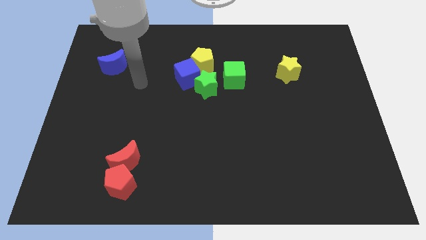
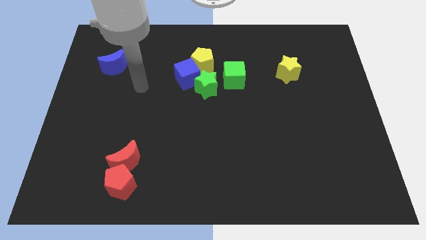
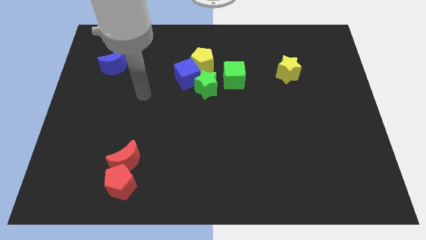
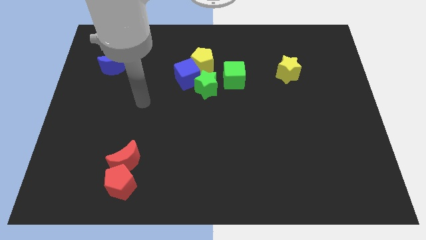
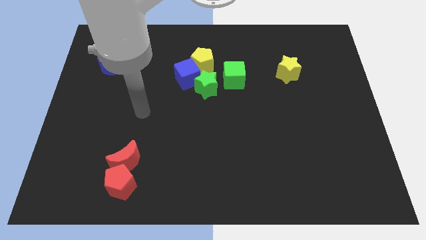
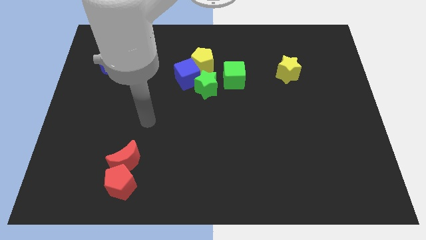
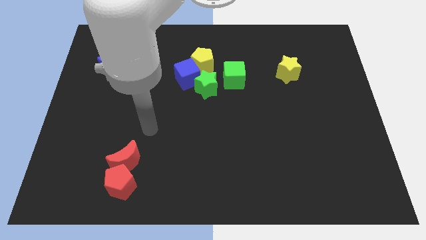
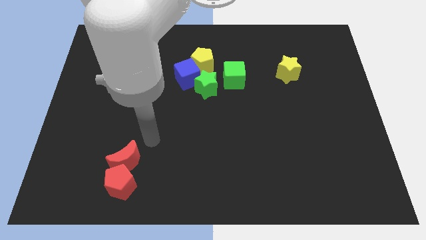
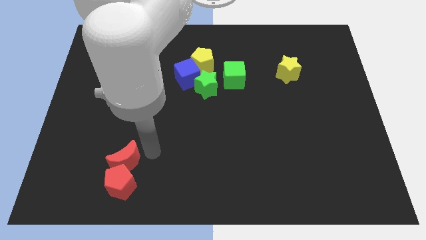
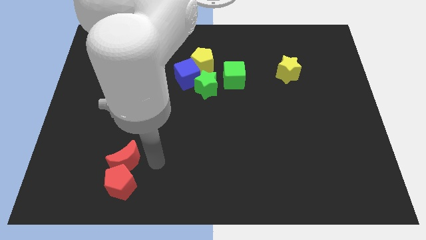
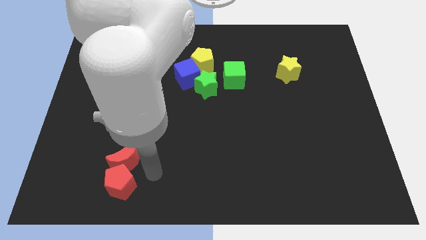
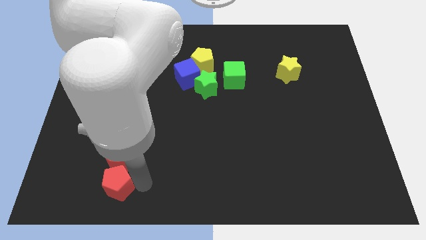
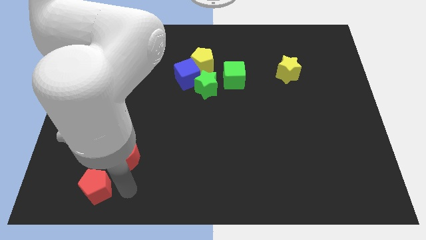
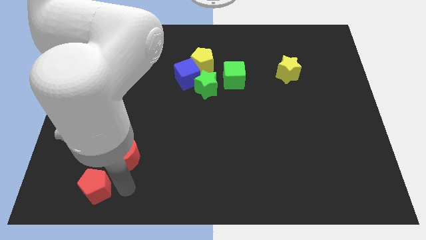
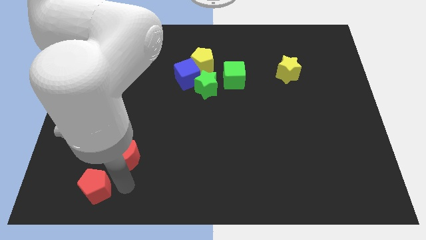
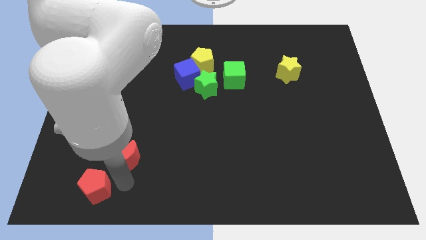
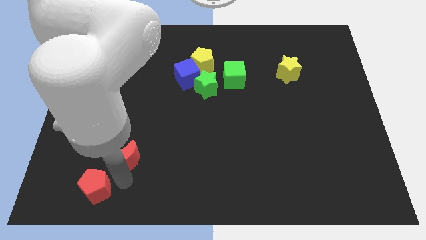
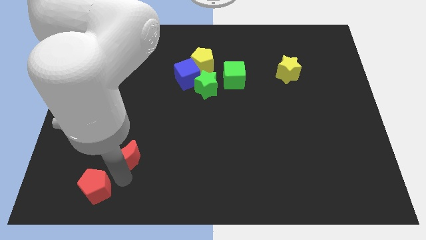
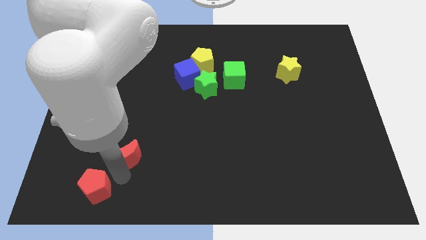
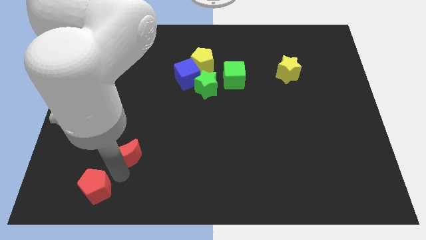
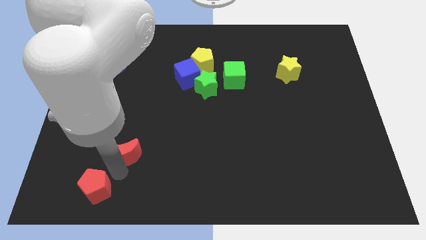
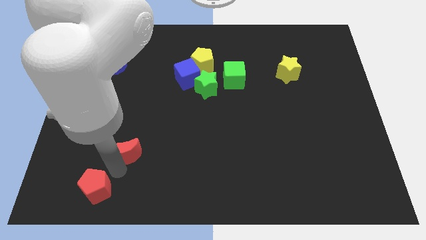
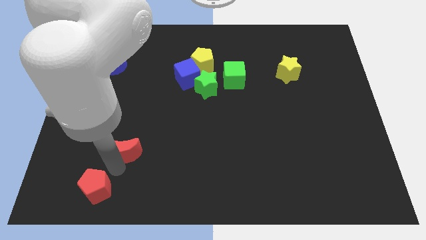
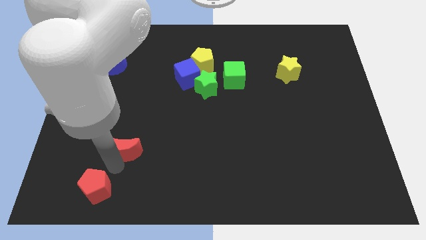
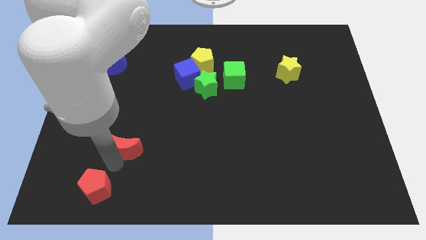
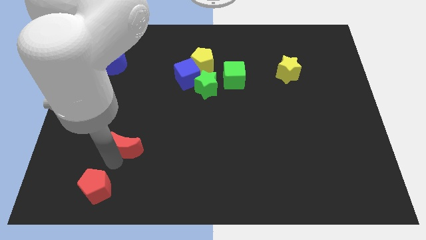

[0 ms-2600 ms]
move the red moon away from the red pentagon

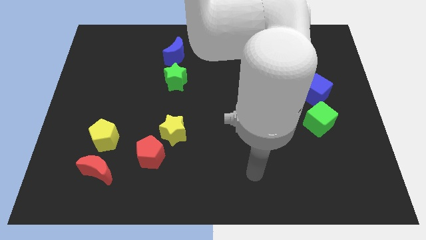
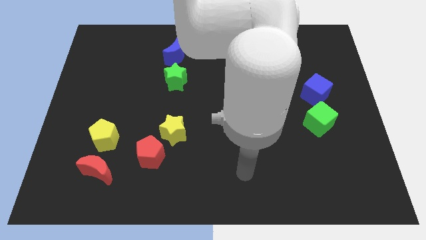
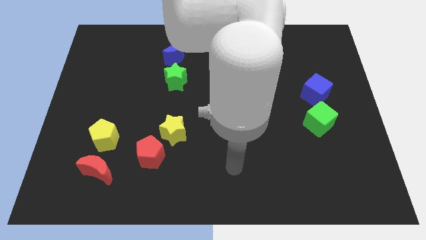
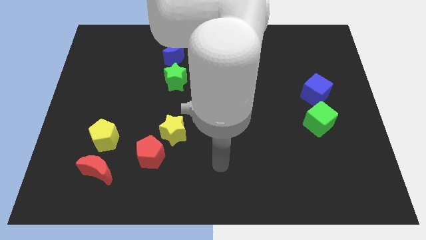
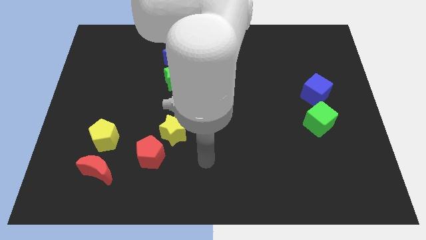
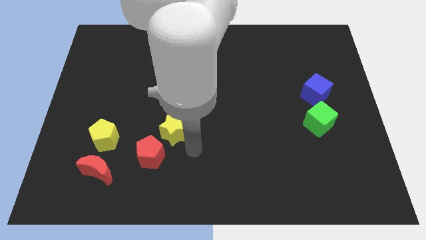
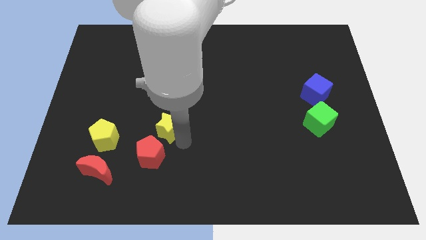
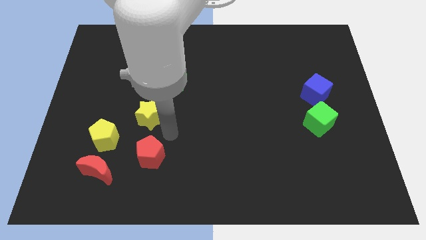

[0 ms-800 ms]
separate the red pentagon from the yellow star

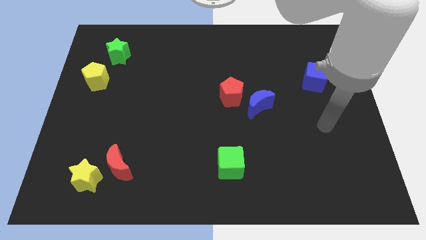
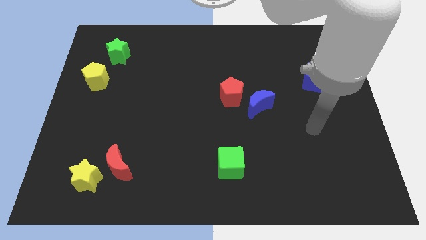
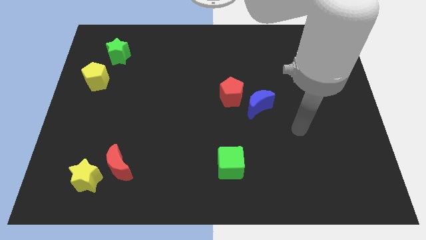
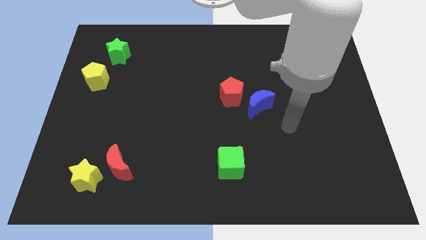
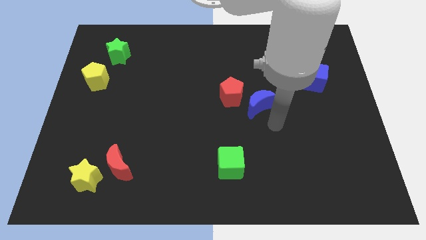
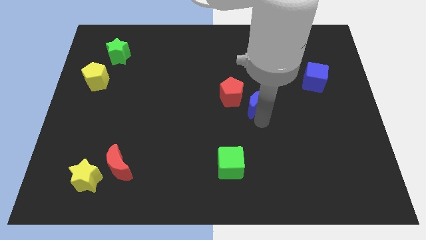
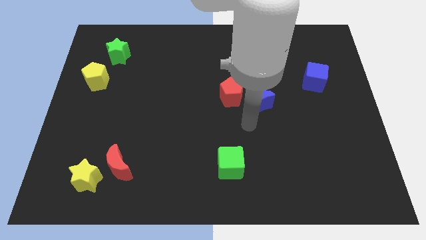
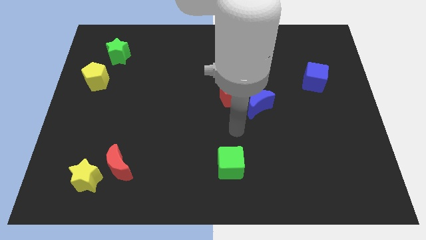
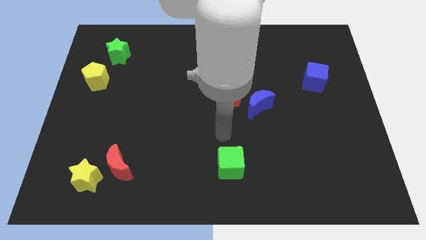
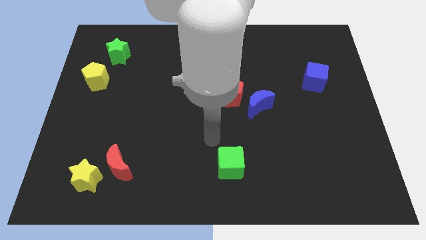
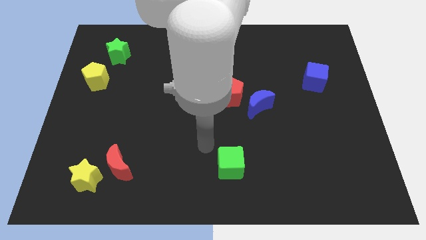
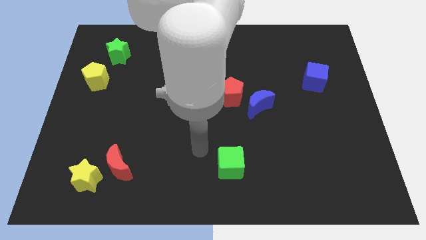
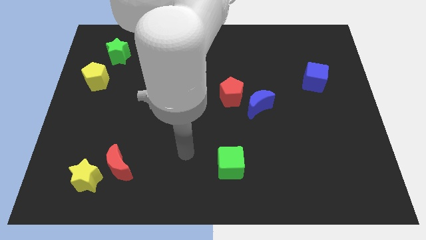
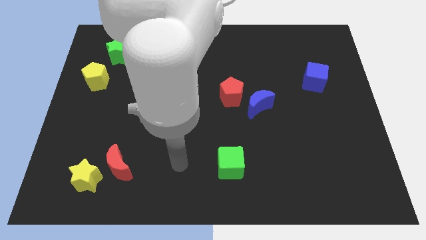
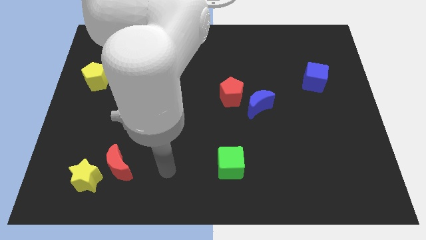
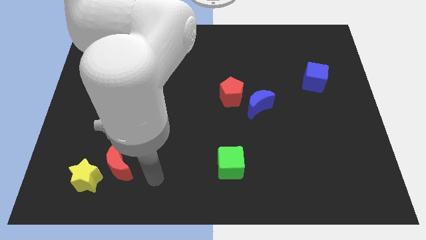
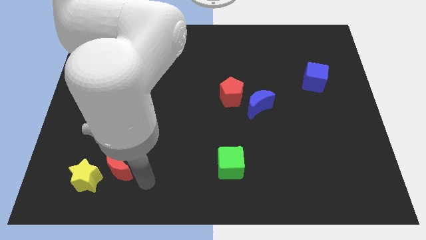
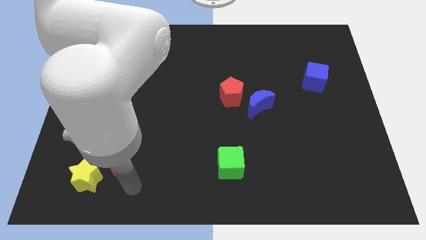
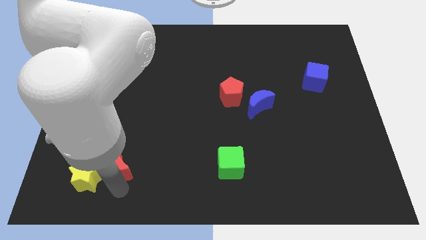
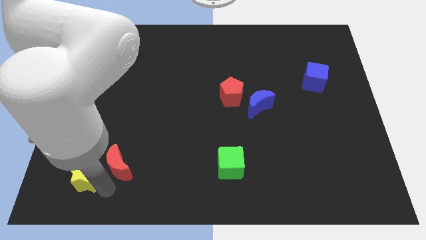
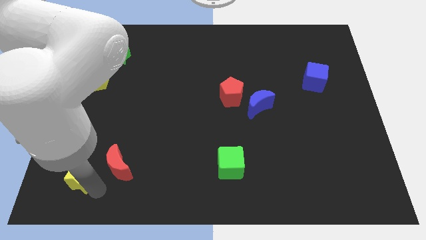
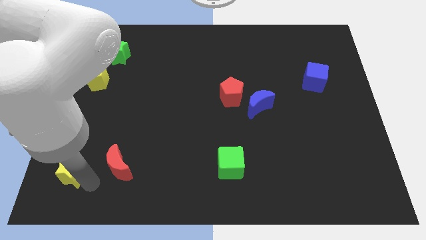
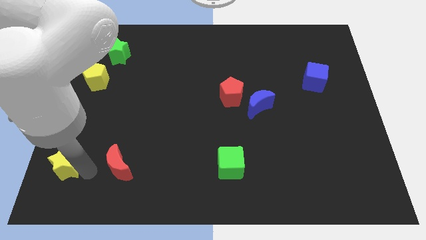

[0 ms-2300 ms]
move the red moon away from the yellow star

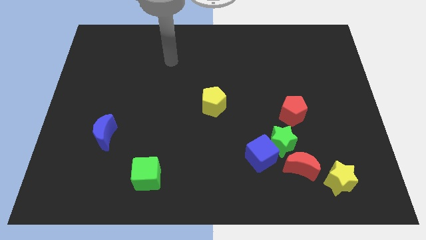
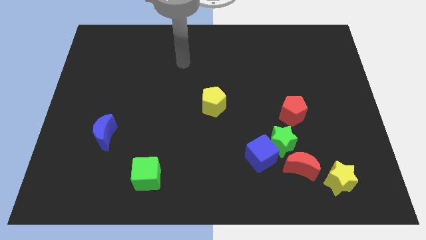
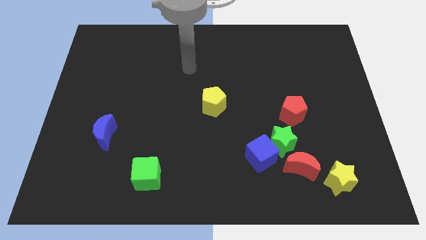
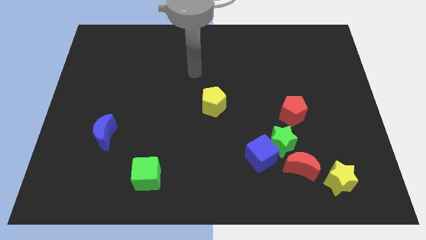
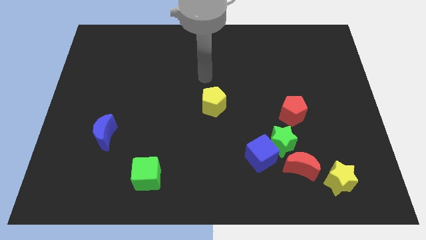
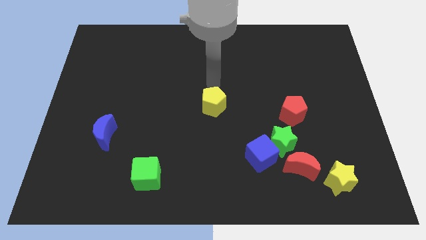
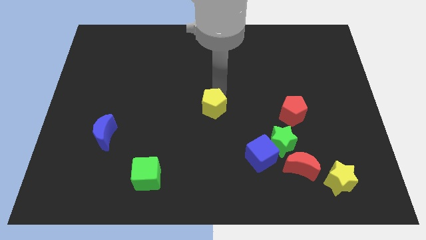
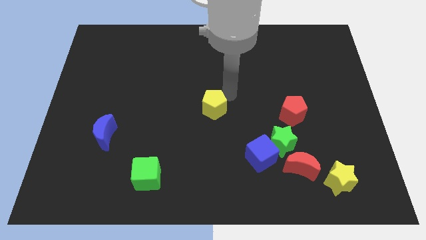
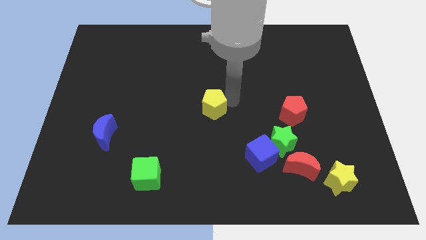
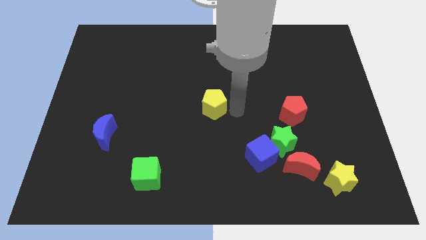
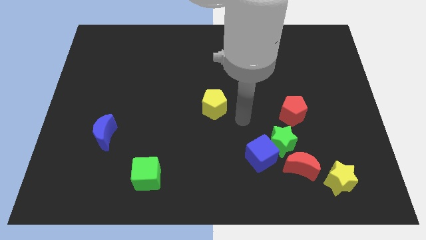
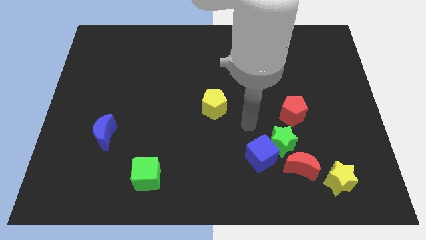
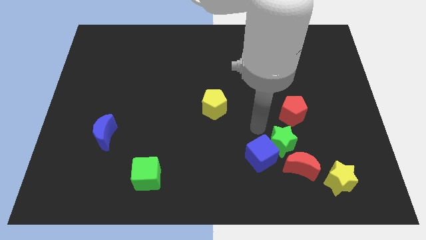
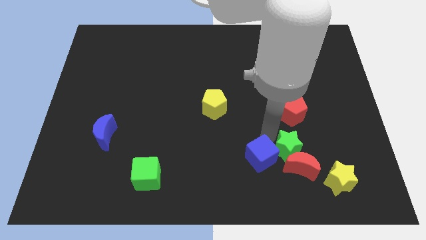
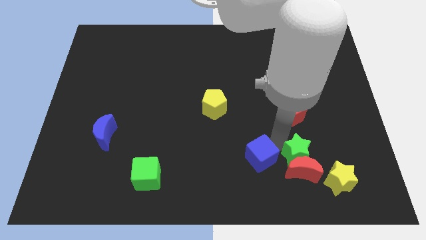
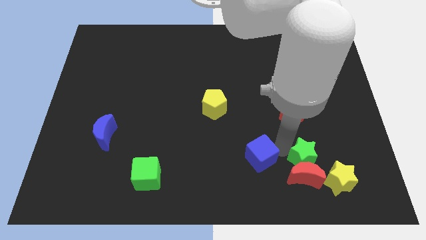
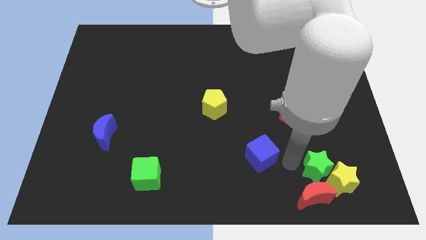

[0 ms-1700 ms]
move the blue cube away from the green star and red moon

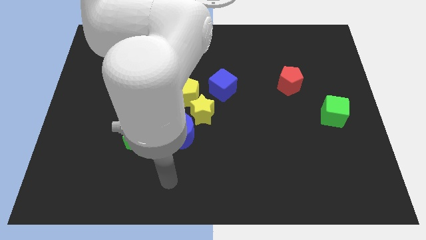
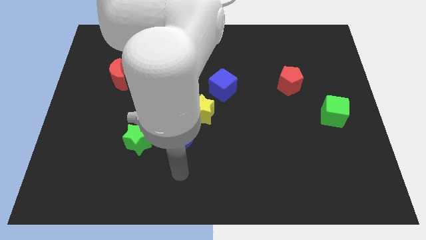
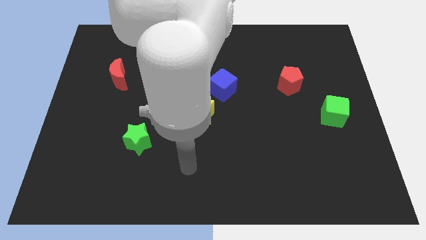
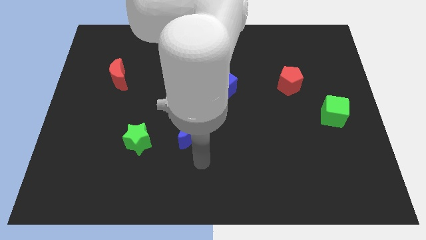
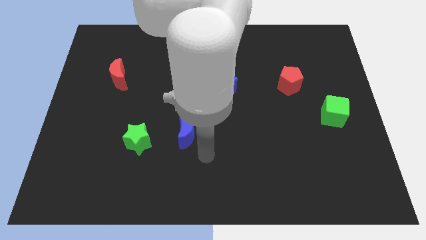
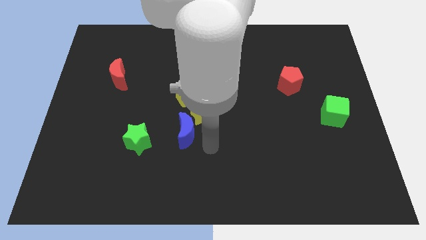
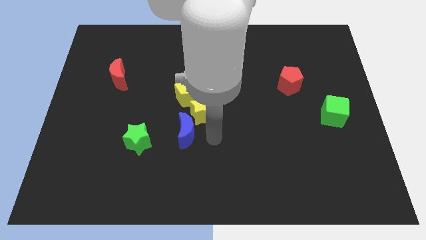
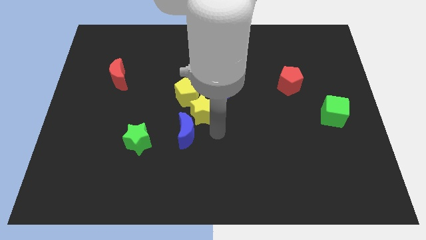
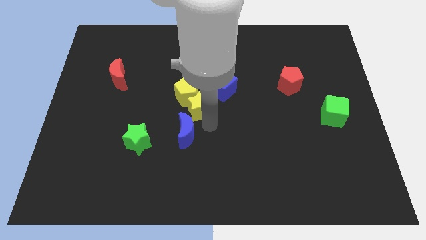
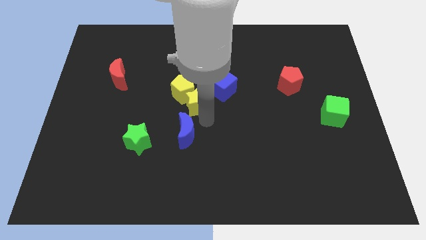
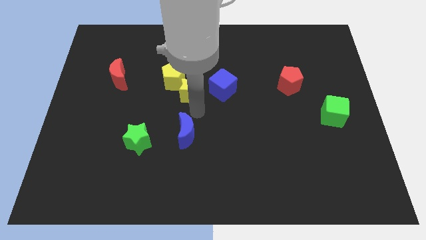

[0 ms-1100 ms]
separate the blue moon from the yellow star

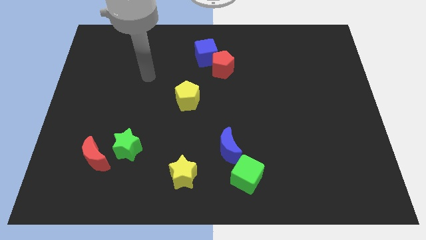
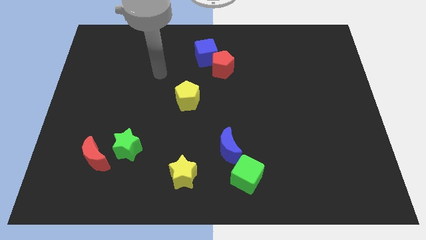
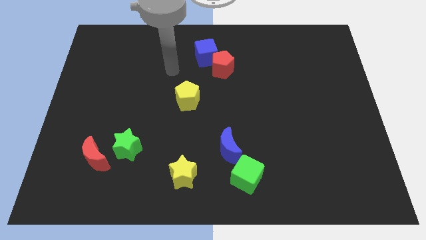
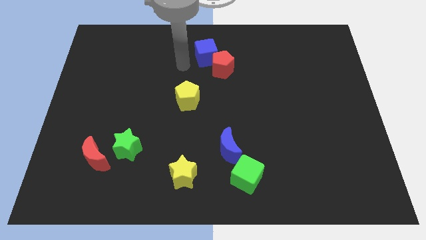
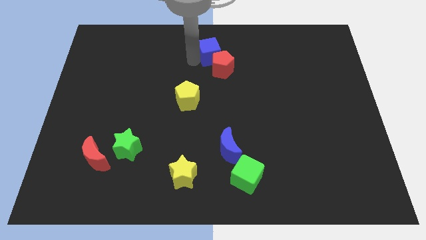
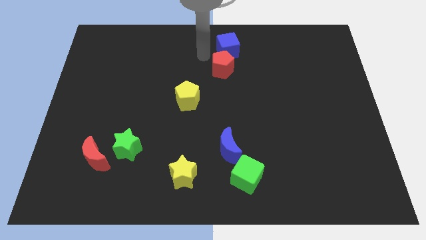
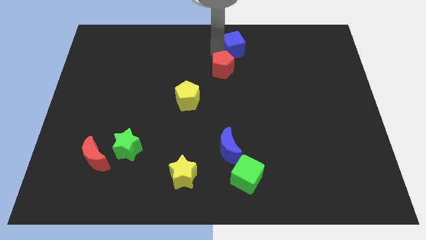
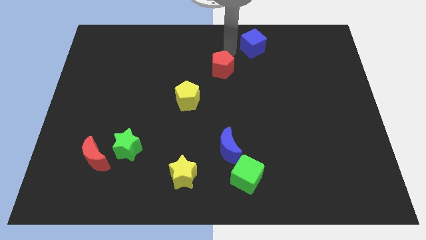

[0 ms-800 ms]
pull the red pentagon apart from the blue cube
